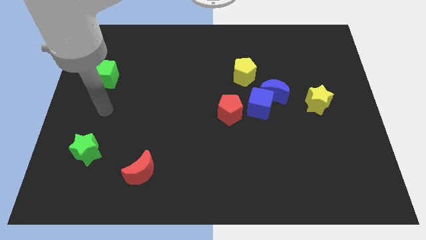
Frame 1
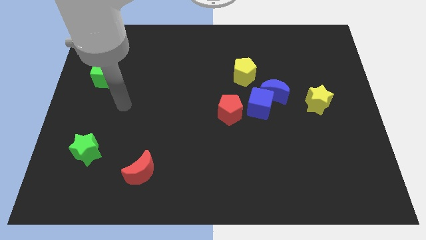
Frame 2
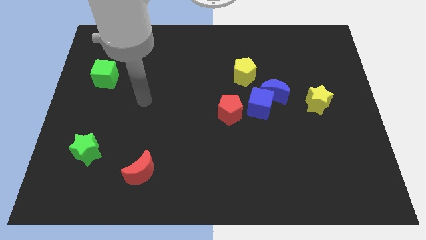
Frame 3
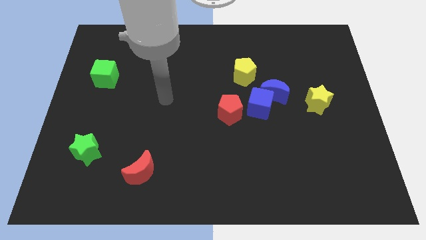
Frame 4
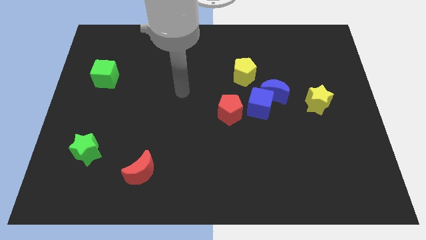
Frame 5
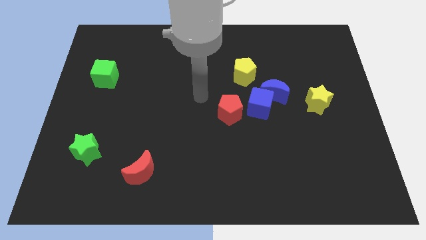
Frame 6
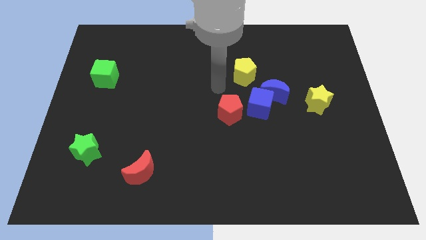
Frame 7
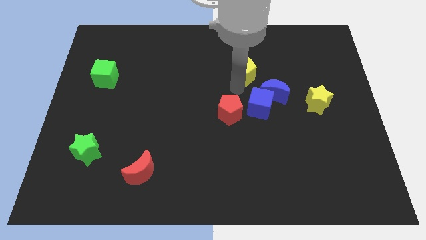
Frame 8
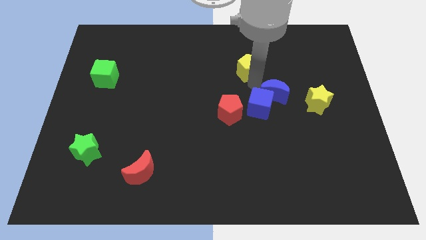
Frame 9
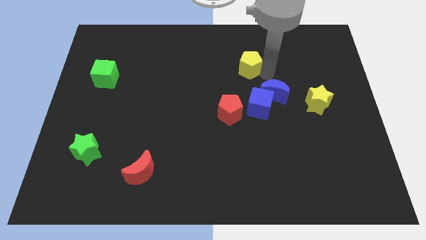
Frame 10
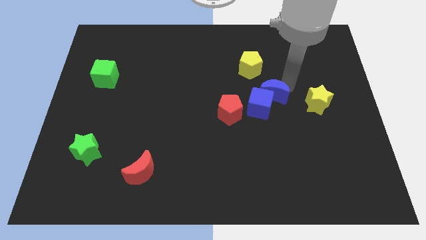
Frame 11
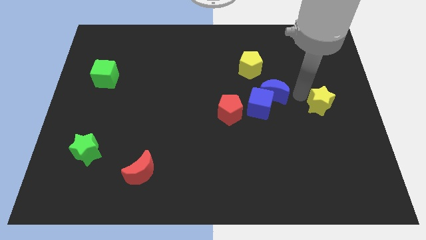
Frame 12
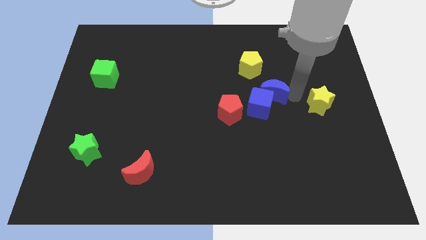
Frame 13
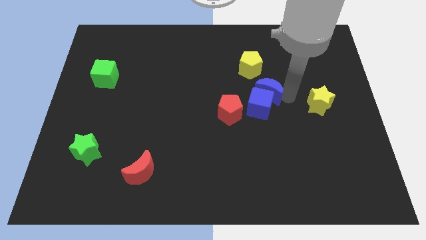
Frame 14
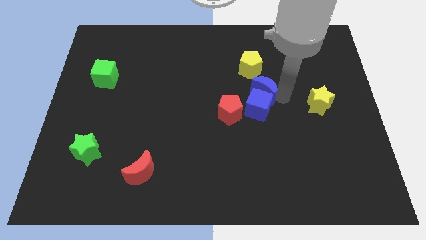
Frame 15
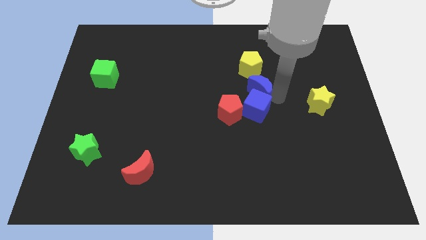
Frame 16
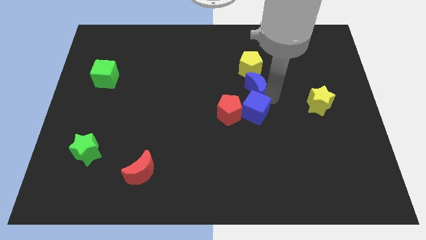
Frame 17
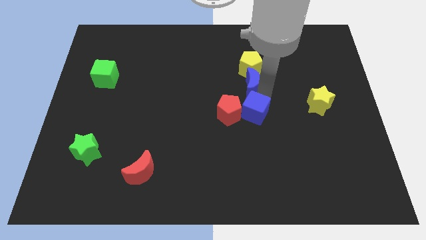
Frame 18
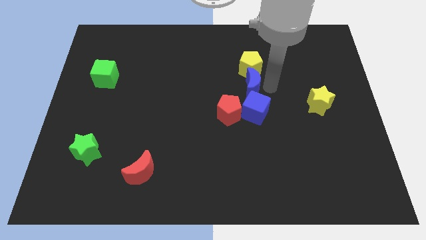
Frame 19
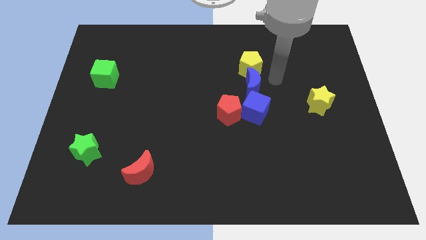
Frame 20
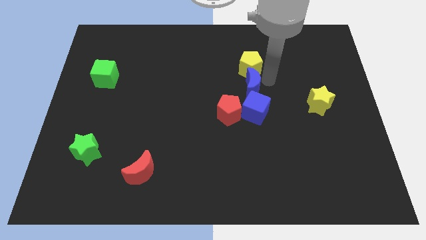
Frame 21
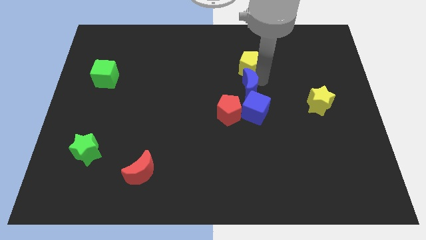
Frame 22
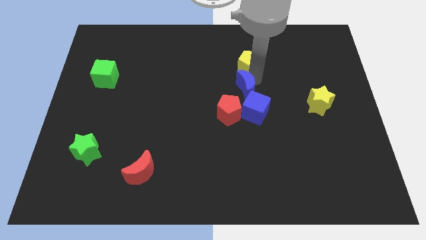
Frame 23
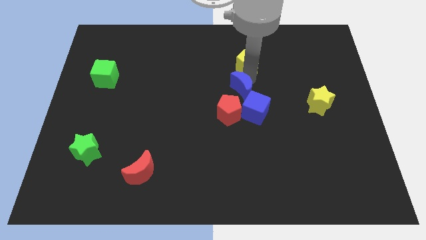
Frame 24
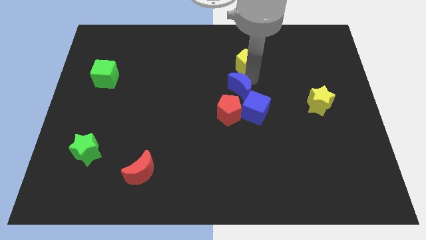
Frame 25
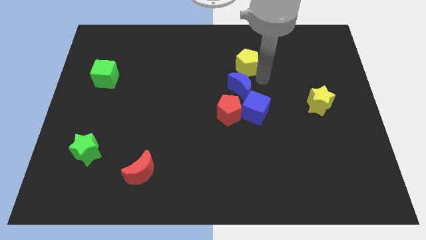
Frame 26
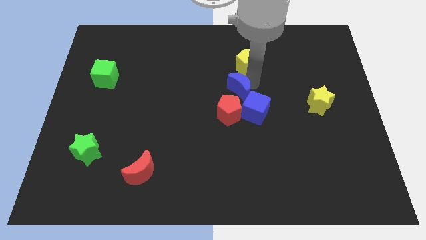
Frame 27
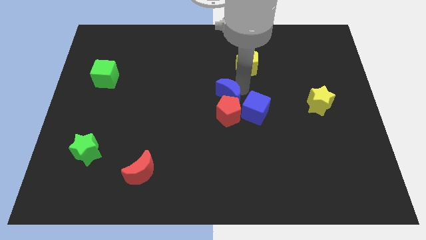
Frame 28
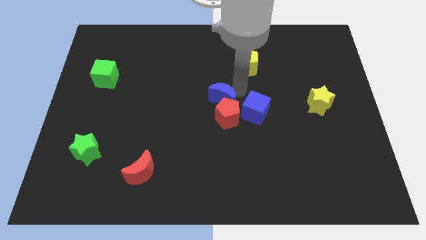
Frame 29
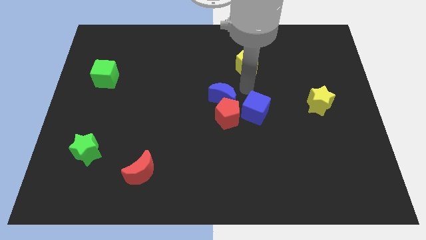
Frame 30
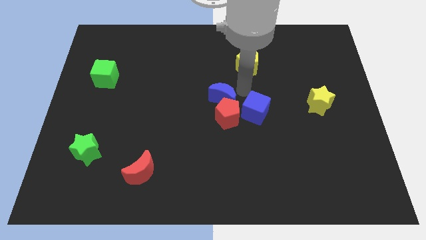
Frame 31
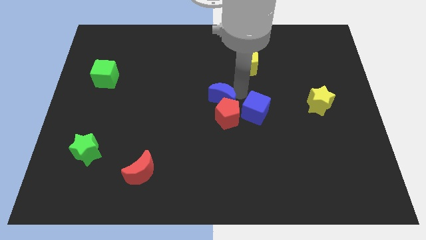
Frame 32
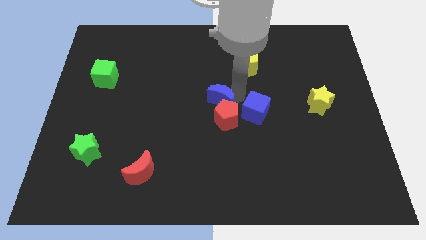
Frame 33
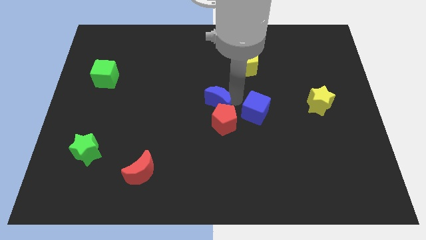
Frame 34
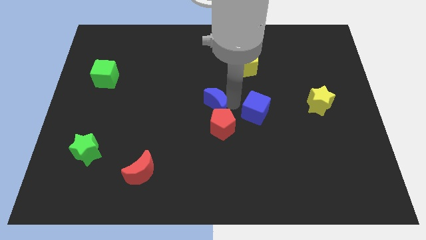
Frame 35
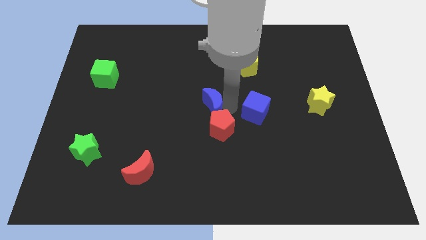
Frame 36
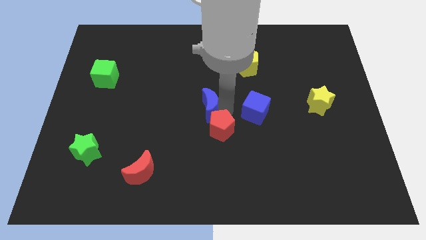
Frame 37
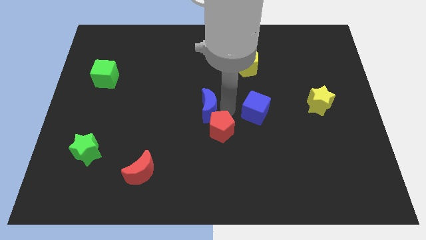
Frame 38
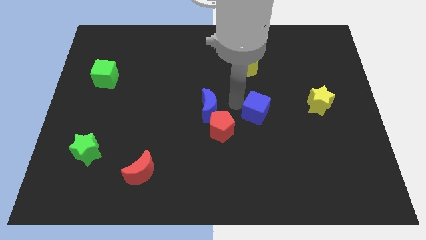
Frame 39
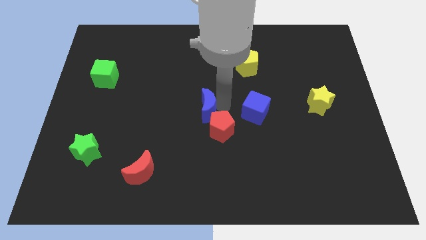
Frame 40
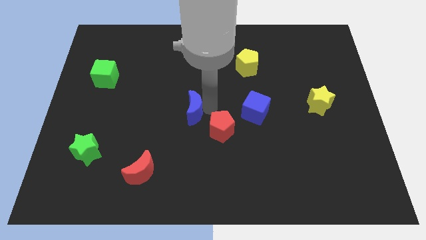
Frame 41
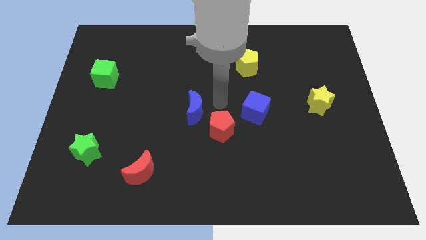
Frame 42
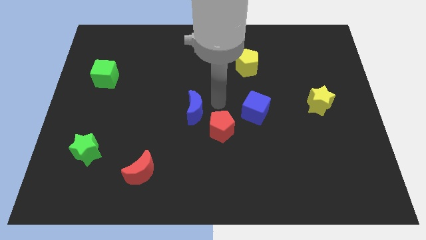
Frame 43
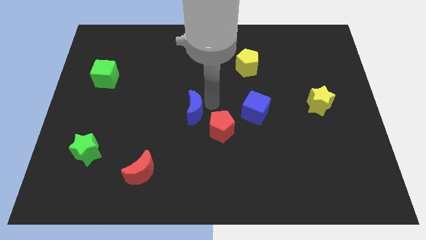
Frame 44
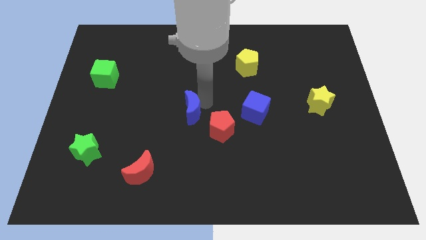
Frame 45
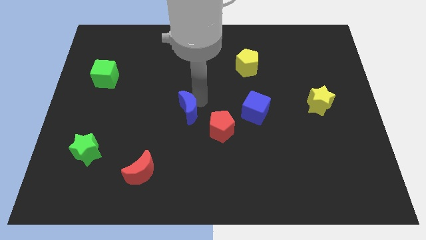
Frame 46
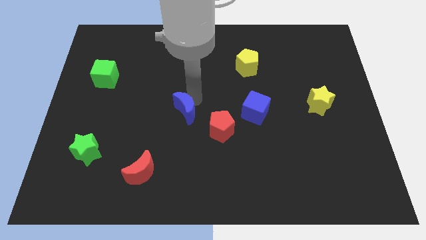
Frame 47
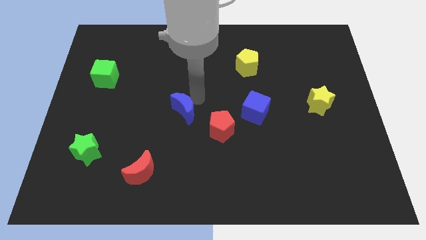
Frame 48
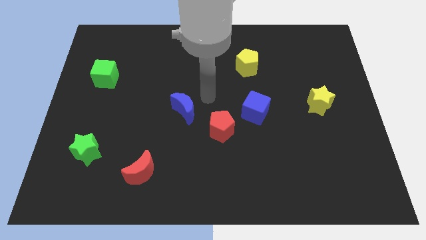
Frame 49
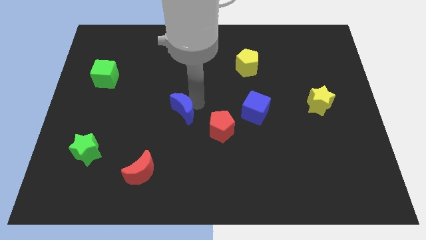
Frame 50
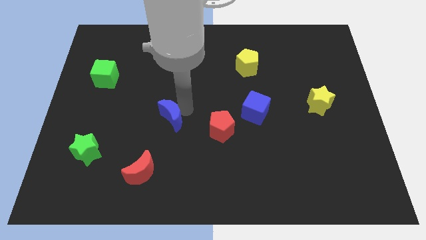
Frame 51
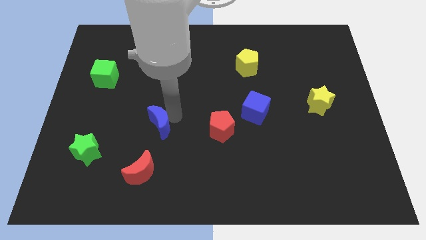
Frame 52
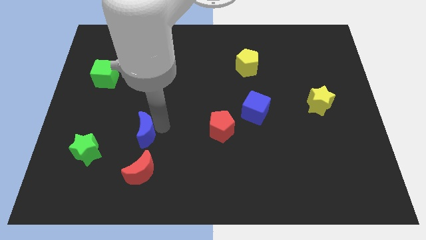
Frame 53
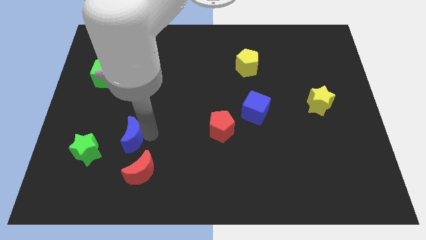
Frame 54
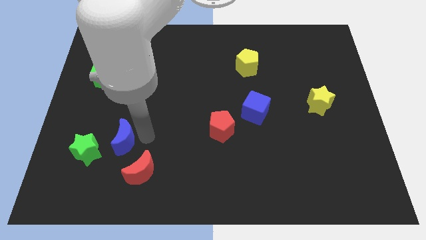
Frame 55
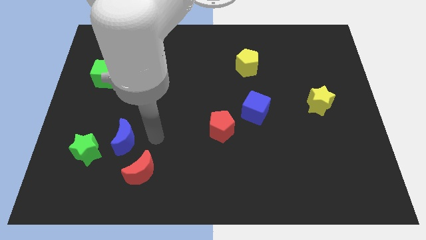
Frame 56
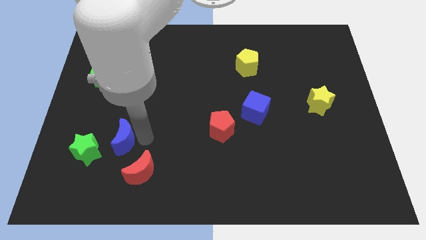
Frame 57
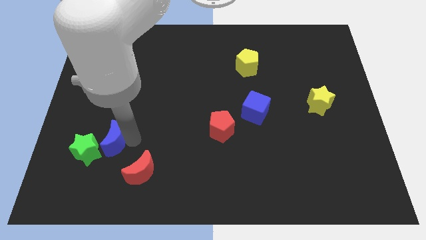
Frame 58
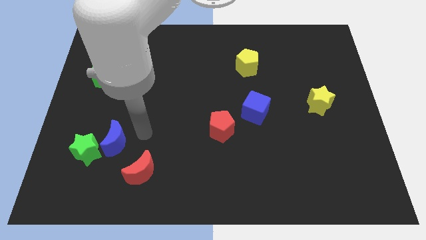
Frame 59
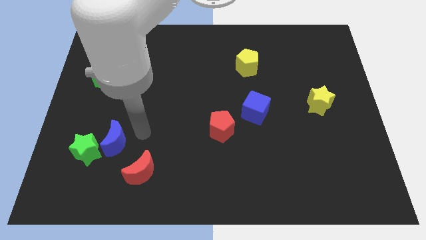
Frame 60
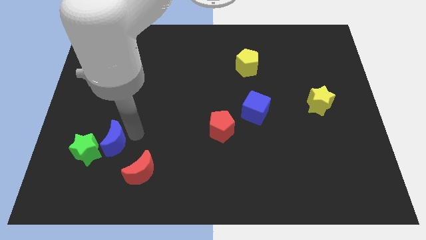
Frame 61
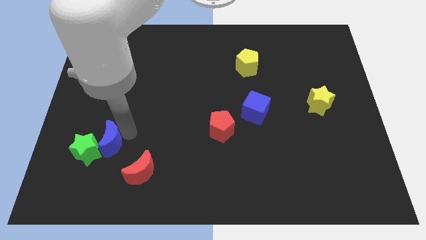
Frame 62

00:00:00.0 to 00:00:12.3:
put the blue moon close to the green star

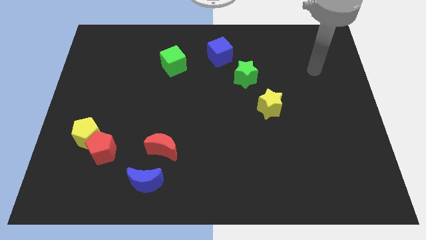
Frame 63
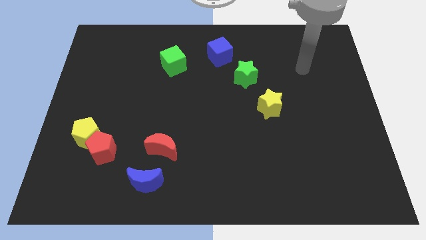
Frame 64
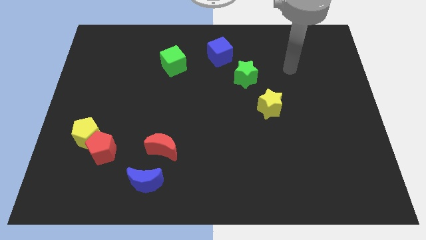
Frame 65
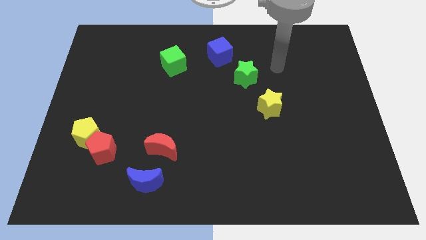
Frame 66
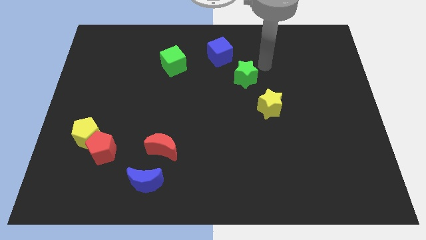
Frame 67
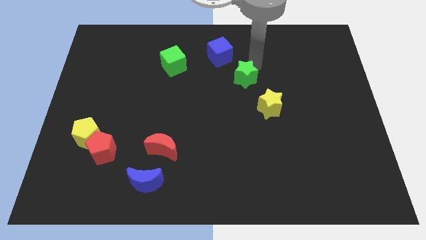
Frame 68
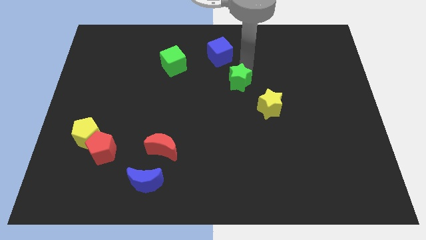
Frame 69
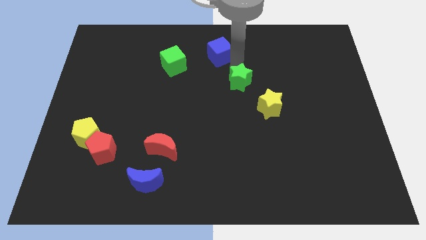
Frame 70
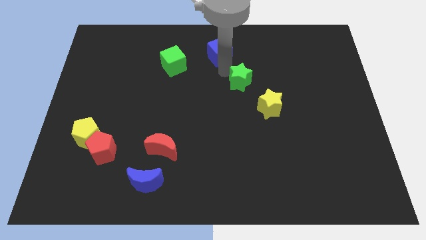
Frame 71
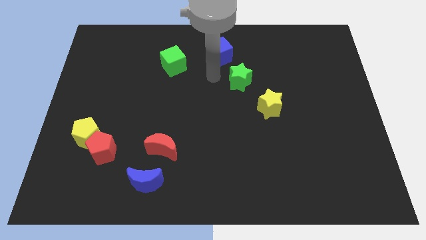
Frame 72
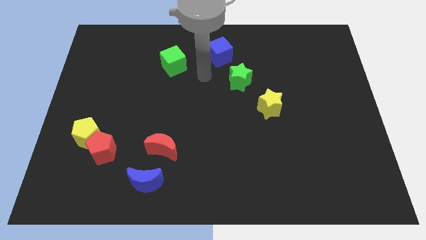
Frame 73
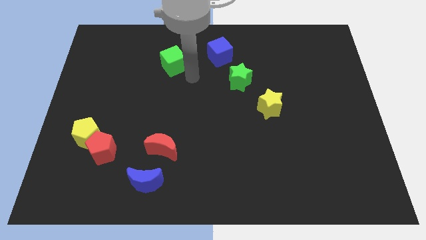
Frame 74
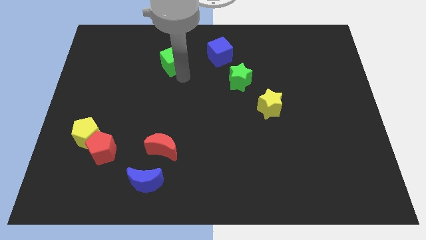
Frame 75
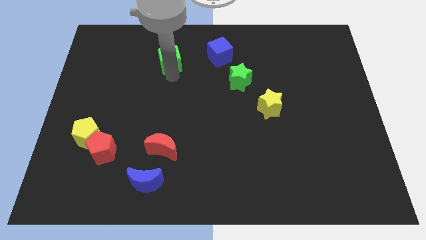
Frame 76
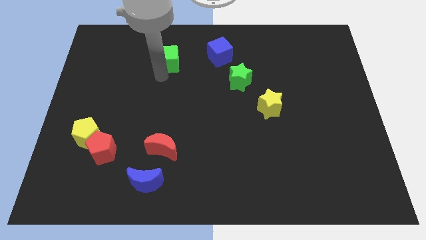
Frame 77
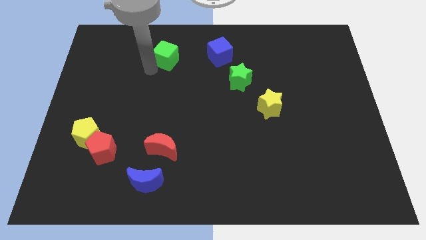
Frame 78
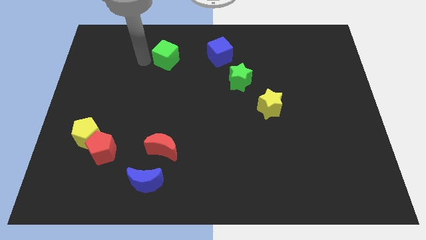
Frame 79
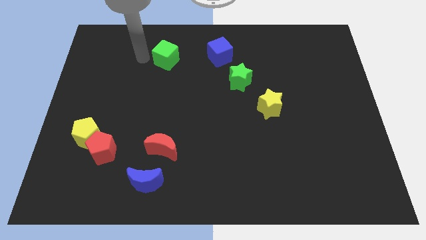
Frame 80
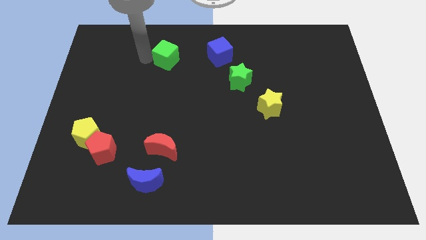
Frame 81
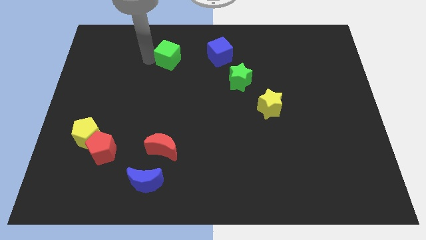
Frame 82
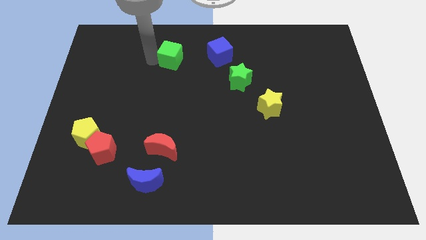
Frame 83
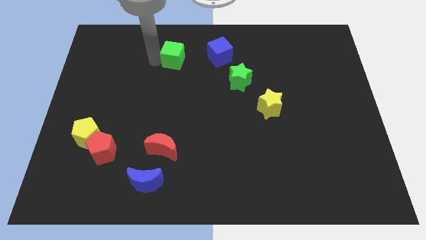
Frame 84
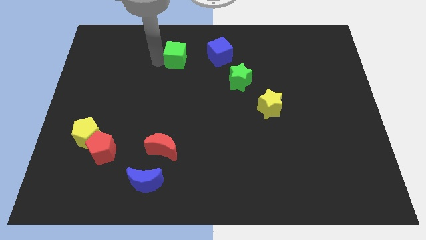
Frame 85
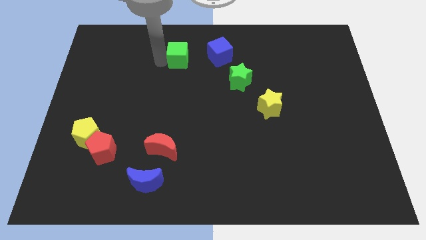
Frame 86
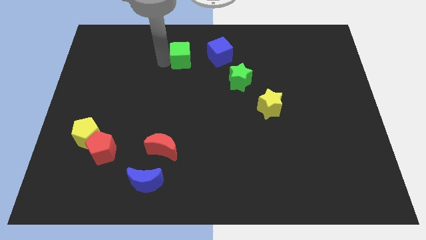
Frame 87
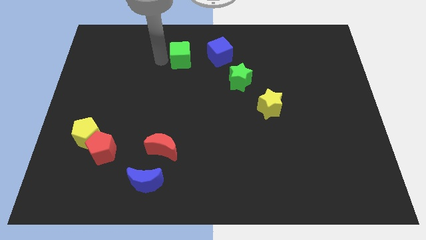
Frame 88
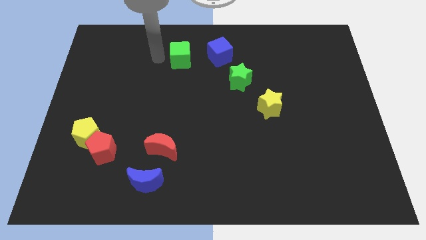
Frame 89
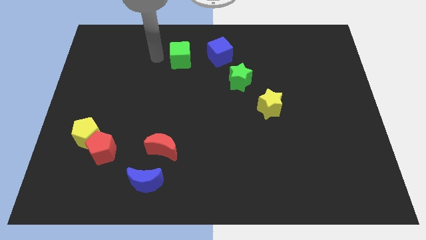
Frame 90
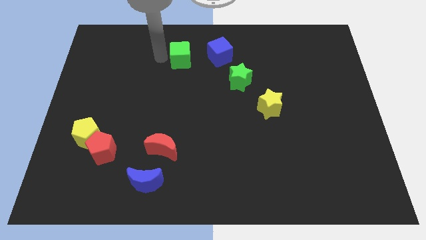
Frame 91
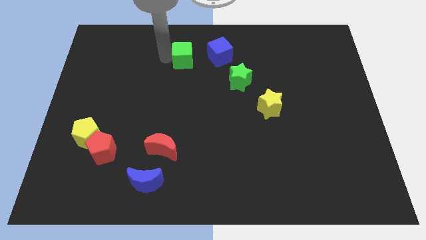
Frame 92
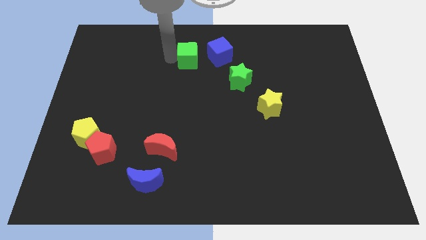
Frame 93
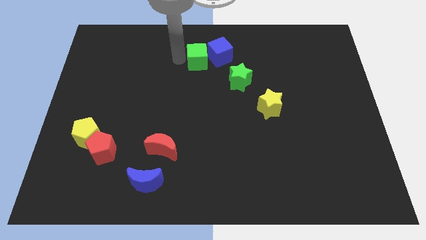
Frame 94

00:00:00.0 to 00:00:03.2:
put the green cube to the blue cube
